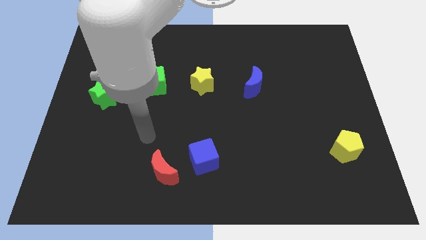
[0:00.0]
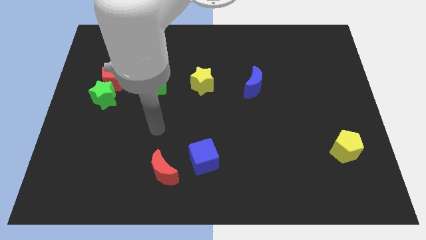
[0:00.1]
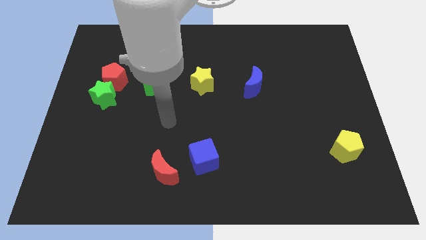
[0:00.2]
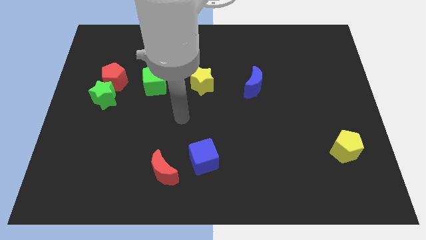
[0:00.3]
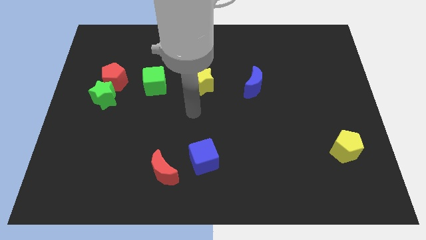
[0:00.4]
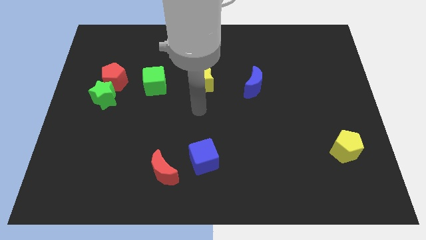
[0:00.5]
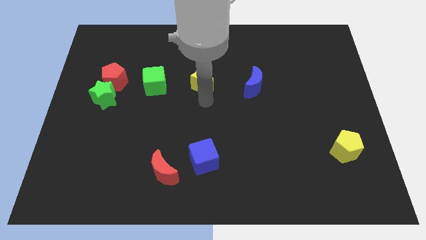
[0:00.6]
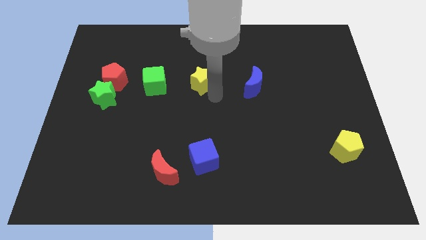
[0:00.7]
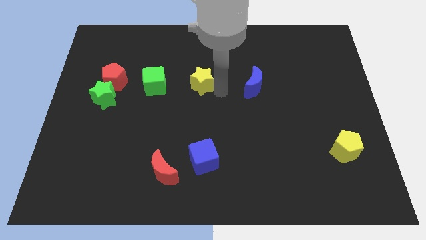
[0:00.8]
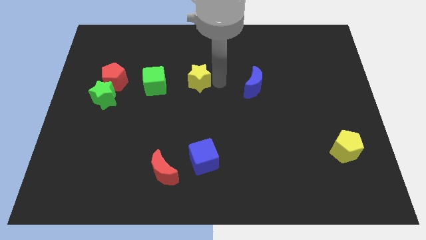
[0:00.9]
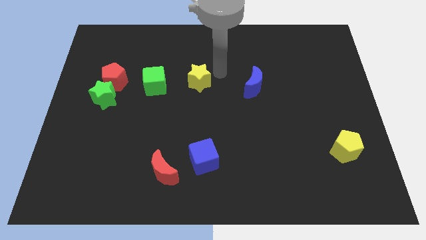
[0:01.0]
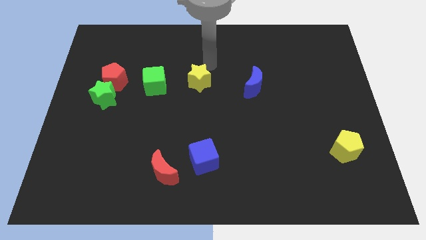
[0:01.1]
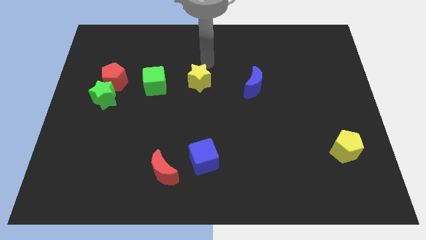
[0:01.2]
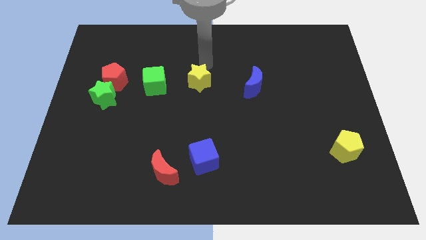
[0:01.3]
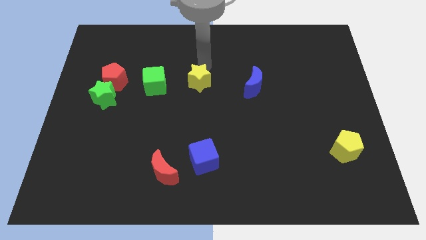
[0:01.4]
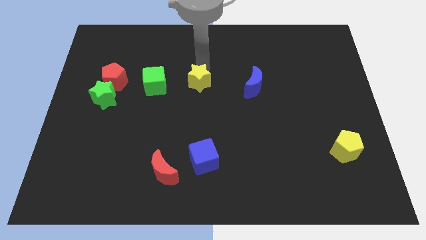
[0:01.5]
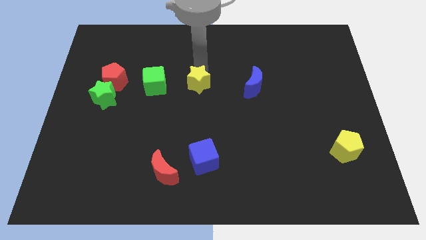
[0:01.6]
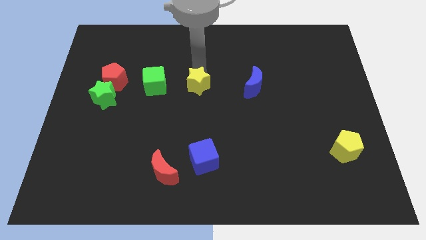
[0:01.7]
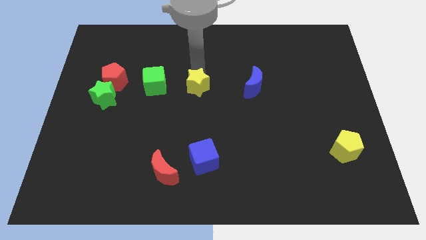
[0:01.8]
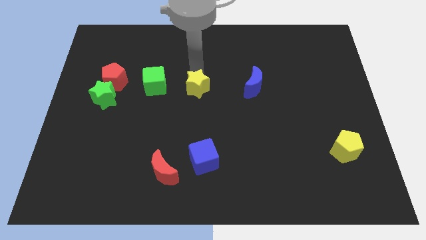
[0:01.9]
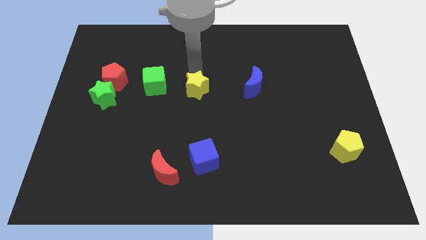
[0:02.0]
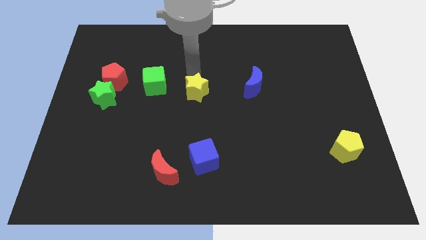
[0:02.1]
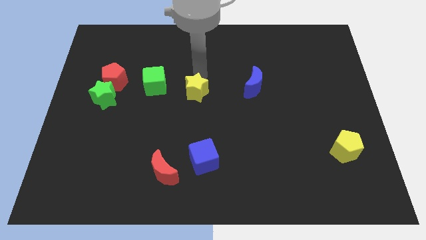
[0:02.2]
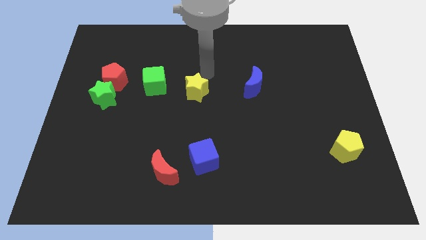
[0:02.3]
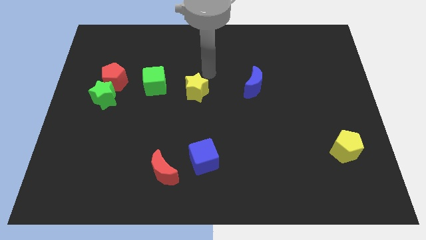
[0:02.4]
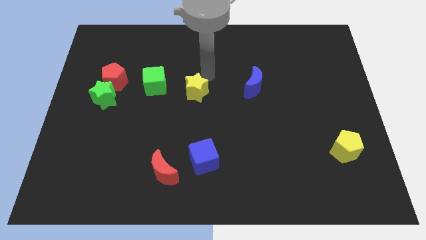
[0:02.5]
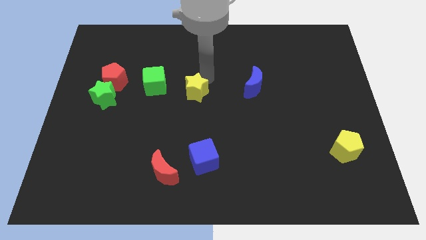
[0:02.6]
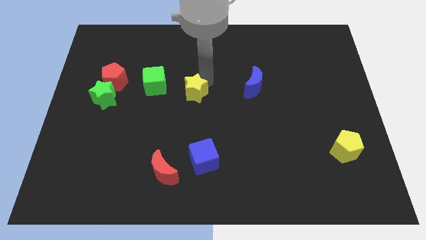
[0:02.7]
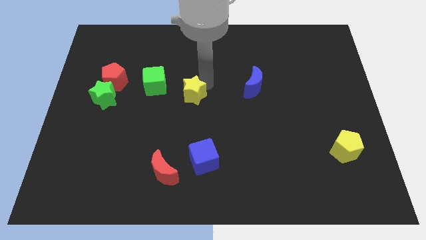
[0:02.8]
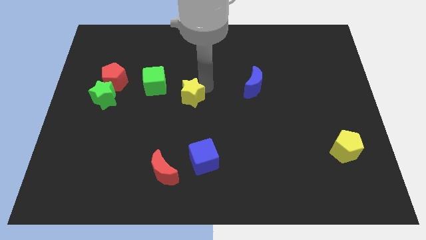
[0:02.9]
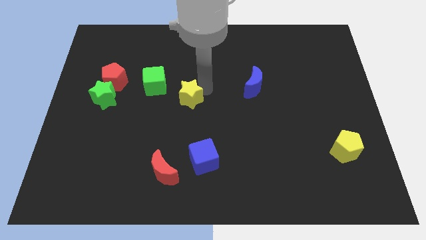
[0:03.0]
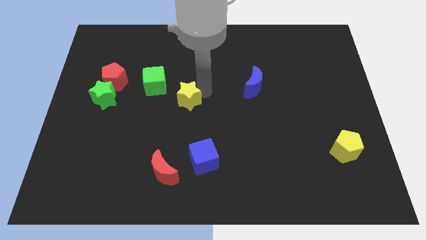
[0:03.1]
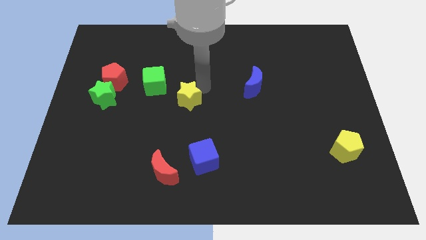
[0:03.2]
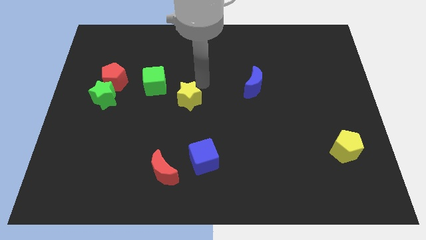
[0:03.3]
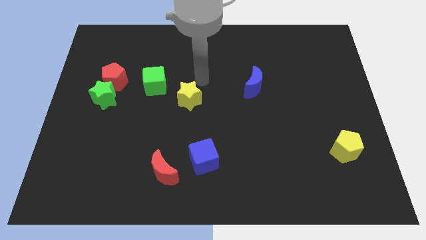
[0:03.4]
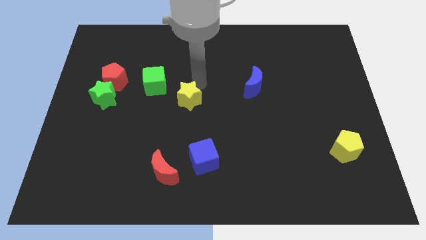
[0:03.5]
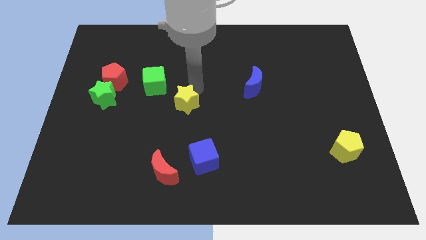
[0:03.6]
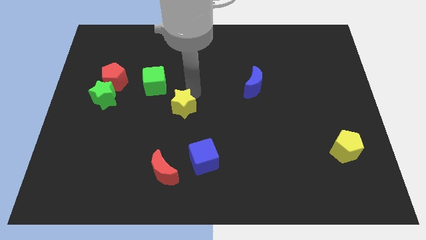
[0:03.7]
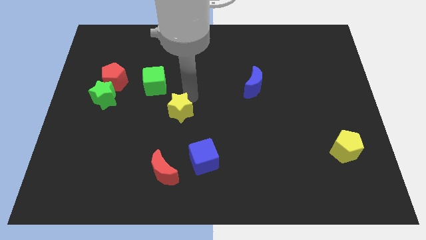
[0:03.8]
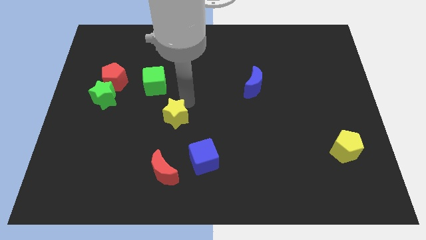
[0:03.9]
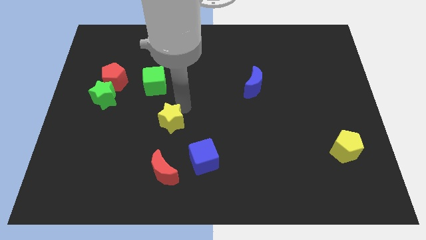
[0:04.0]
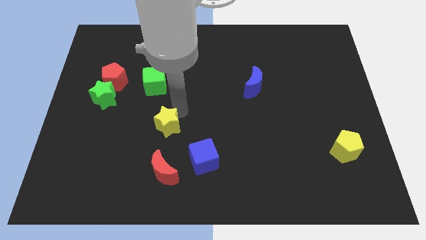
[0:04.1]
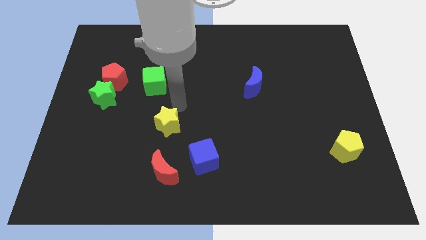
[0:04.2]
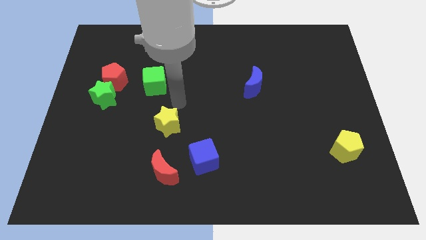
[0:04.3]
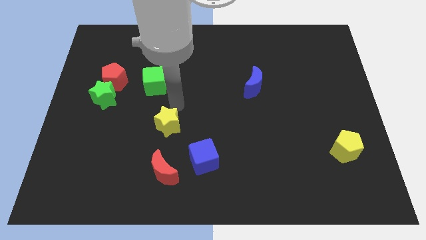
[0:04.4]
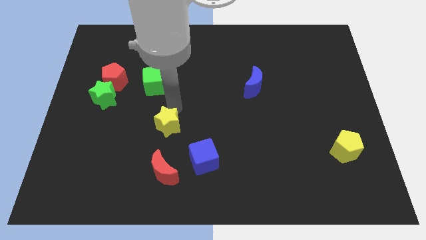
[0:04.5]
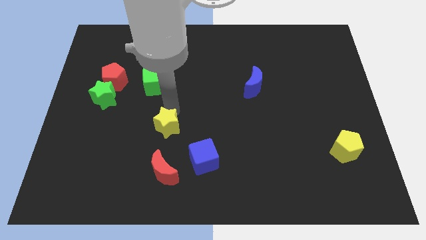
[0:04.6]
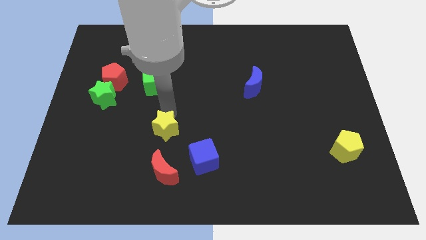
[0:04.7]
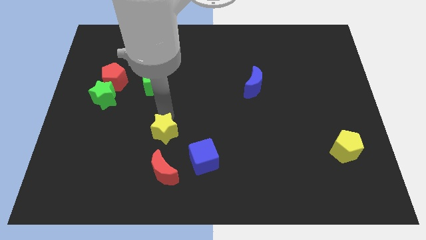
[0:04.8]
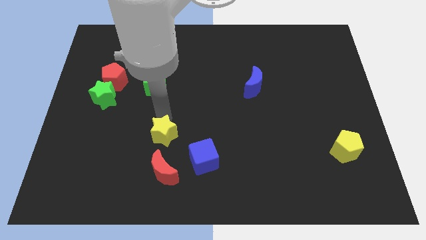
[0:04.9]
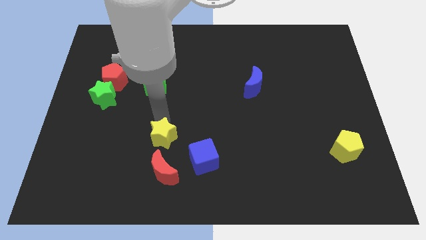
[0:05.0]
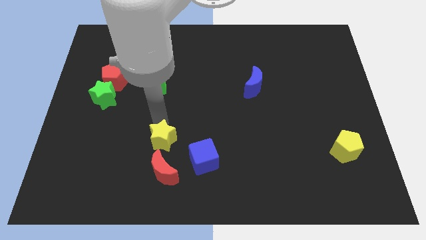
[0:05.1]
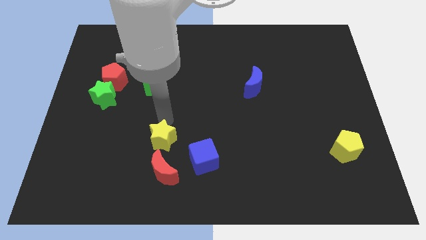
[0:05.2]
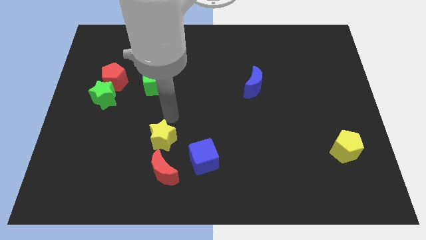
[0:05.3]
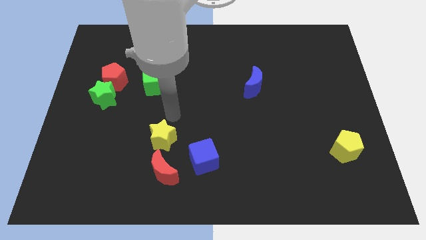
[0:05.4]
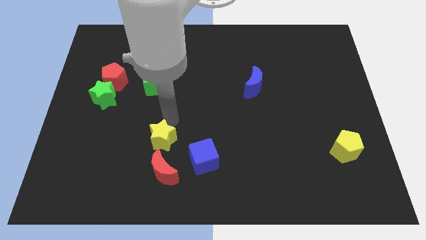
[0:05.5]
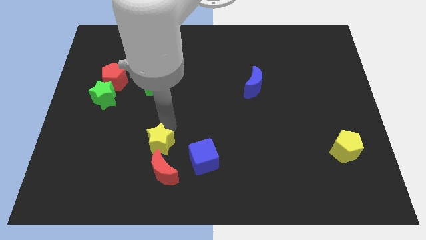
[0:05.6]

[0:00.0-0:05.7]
slide the yellow star just left of the blue cube

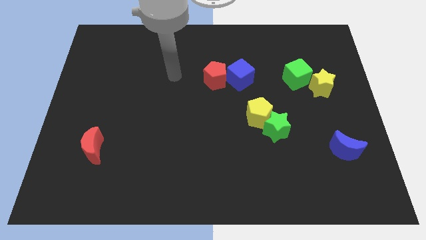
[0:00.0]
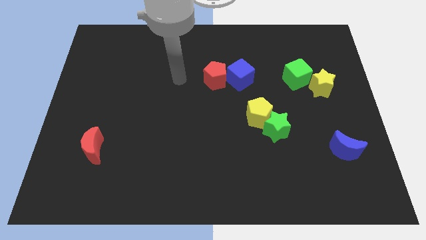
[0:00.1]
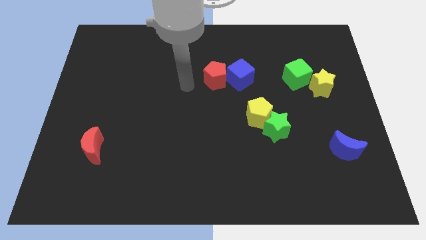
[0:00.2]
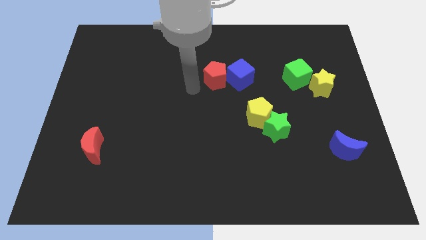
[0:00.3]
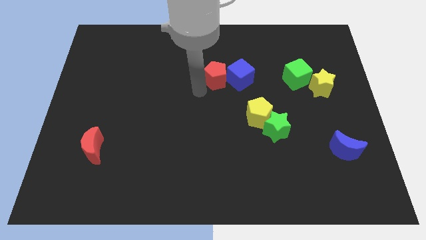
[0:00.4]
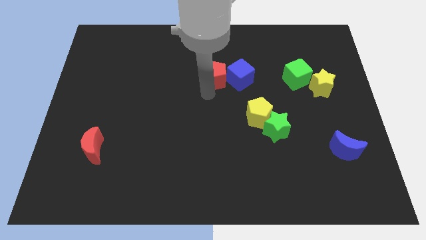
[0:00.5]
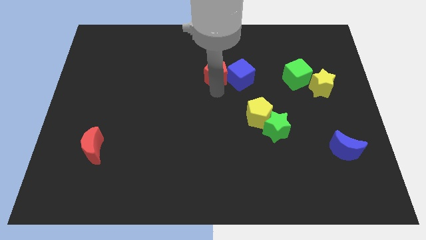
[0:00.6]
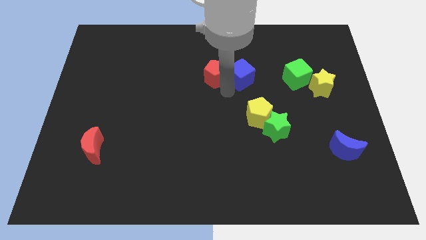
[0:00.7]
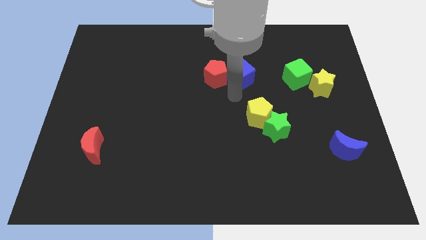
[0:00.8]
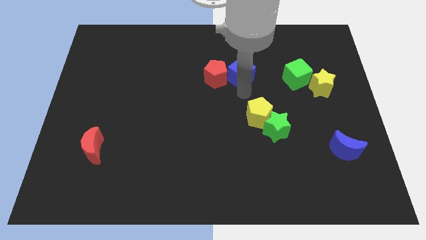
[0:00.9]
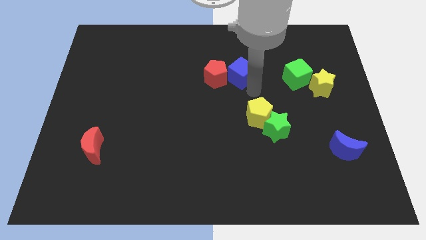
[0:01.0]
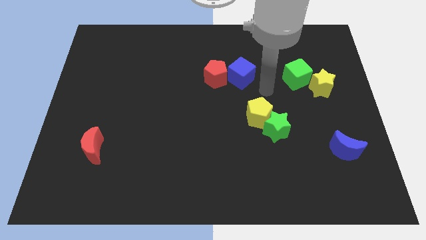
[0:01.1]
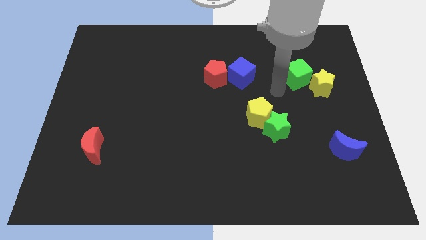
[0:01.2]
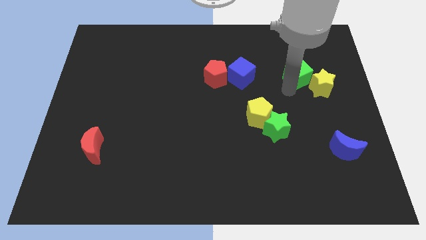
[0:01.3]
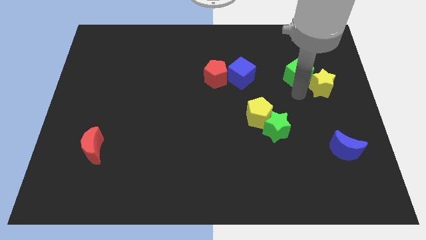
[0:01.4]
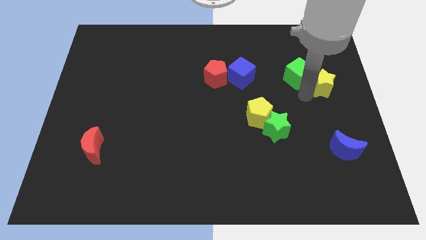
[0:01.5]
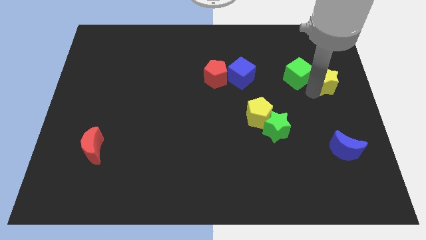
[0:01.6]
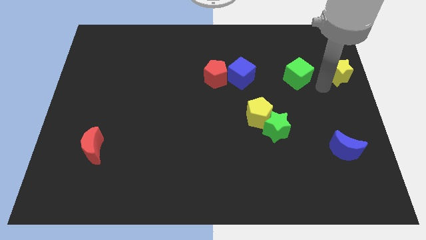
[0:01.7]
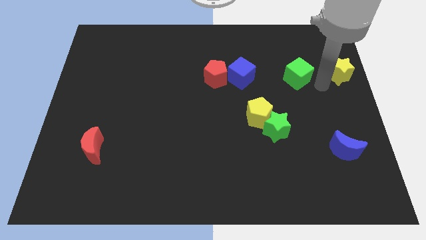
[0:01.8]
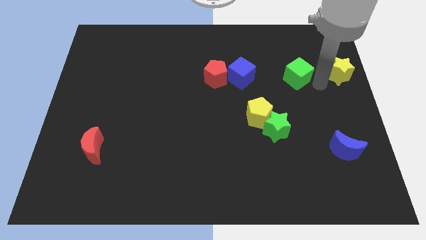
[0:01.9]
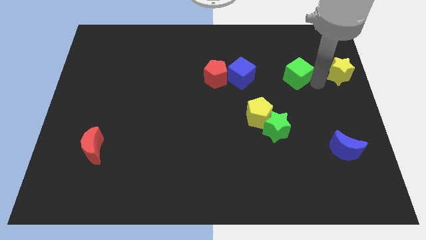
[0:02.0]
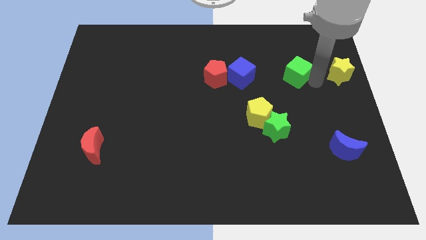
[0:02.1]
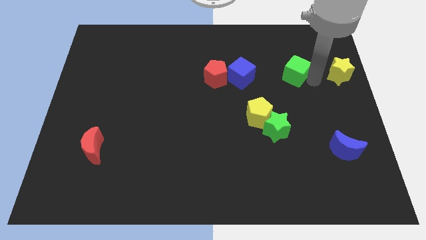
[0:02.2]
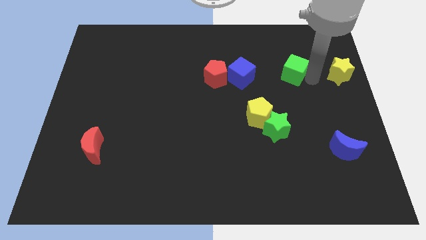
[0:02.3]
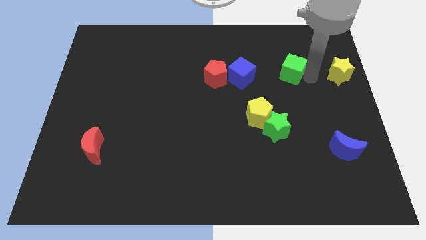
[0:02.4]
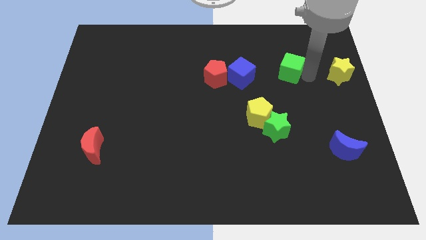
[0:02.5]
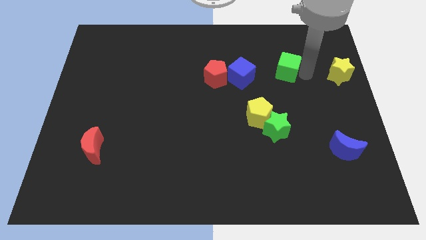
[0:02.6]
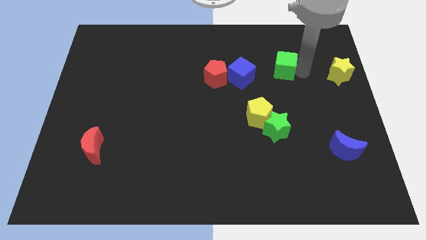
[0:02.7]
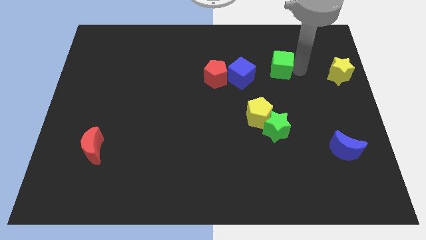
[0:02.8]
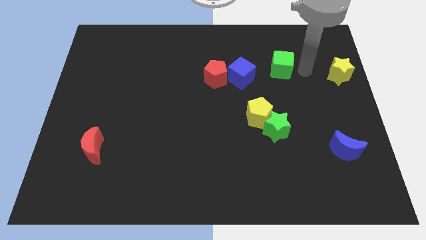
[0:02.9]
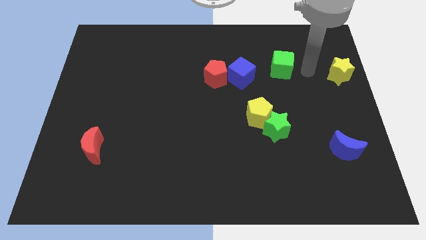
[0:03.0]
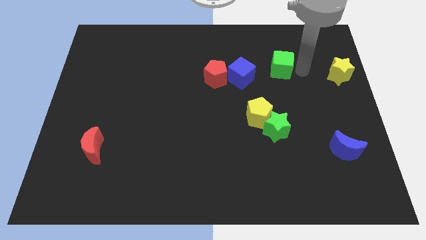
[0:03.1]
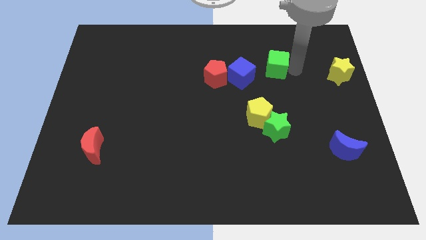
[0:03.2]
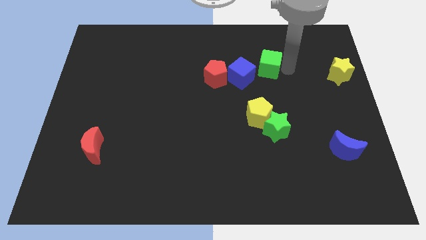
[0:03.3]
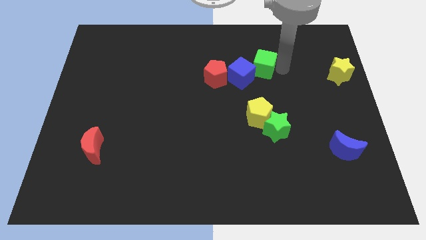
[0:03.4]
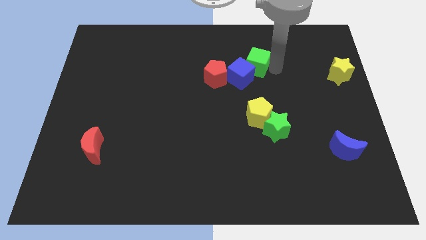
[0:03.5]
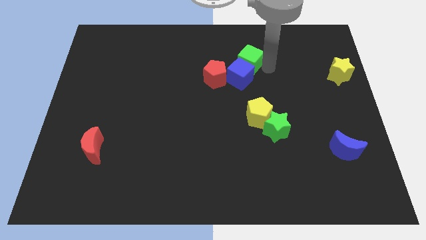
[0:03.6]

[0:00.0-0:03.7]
move the green cube to the top right of the red pentagon
